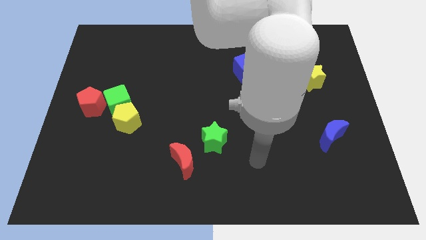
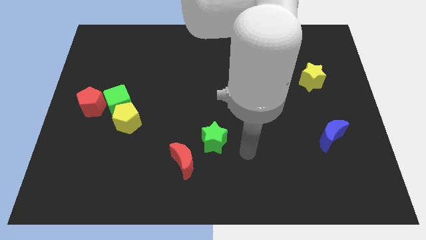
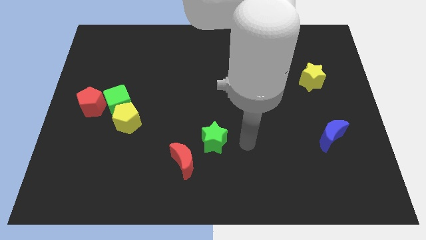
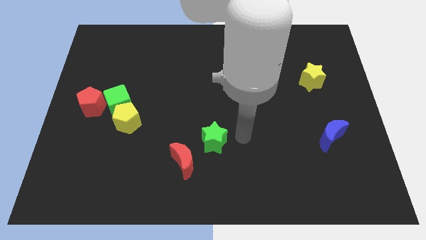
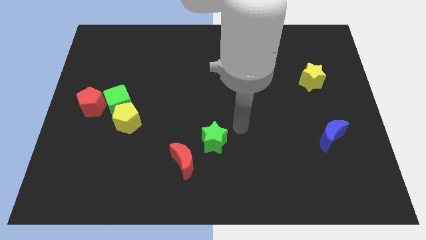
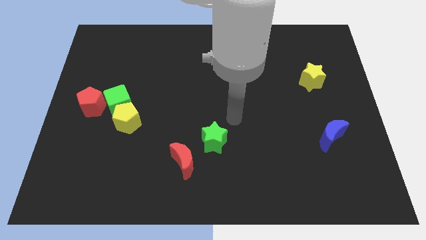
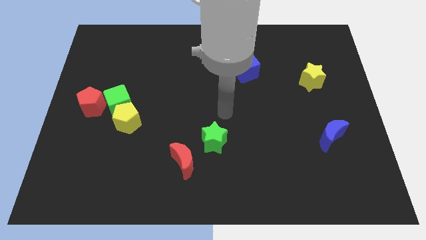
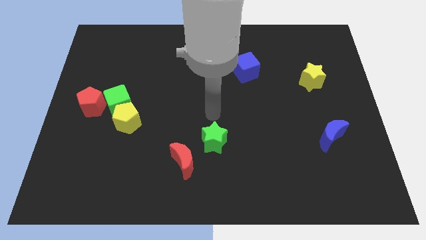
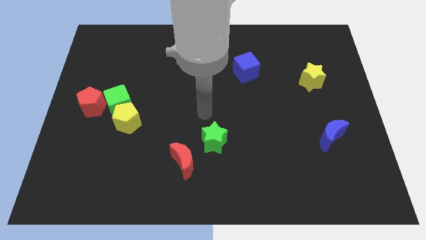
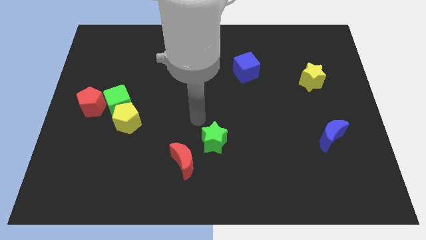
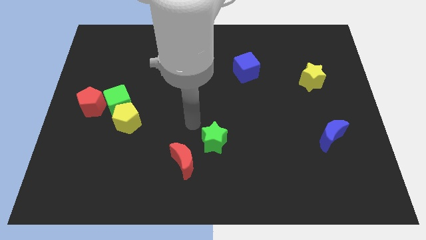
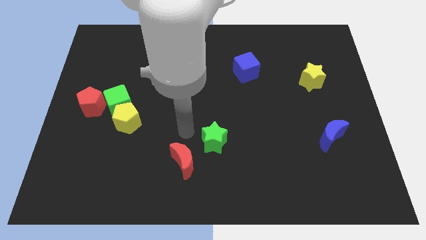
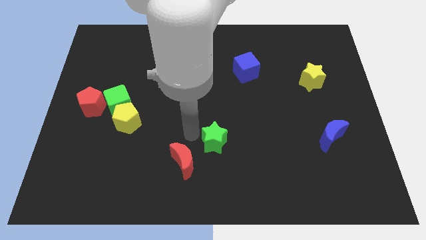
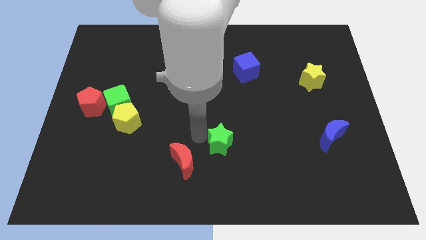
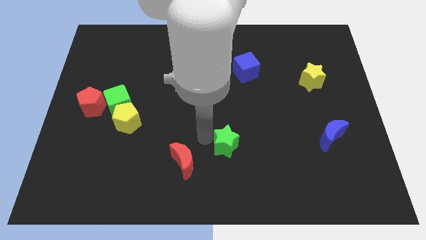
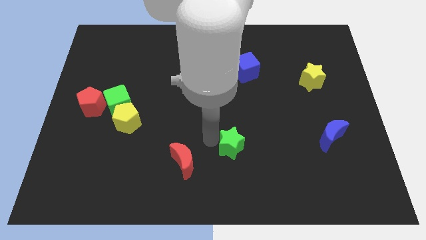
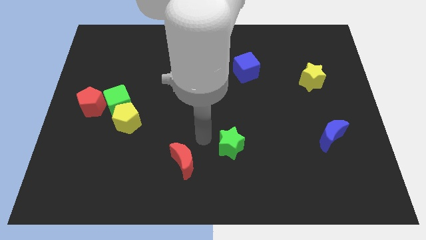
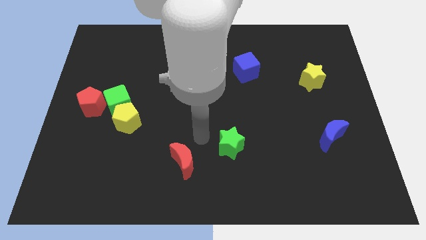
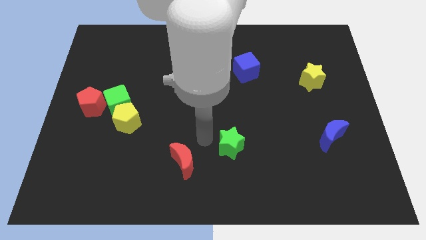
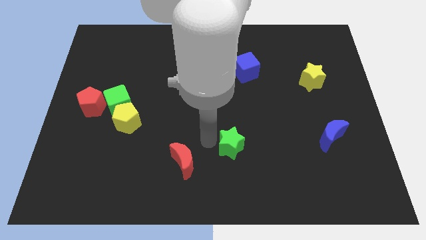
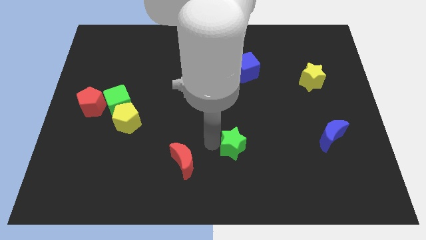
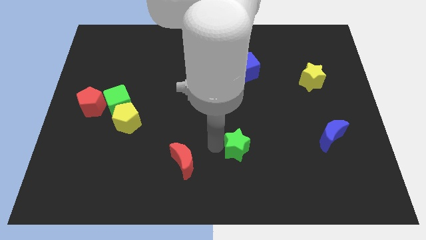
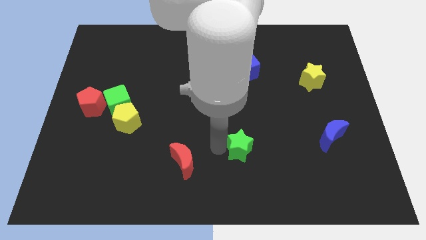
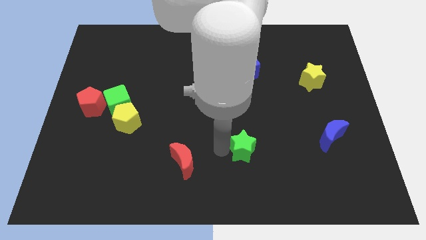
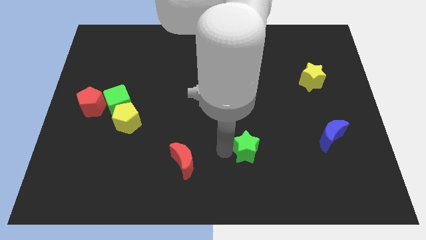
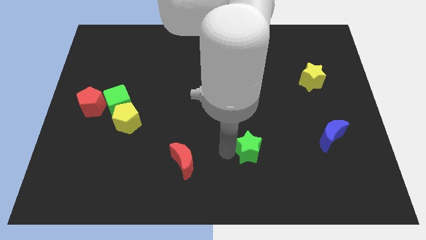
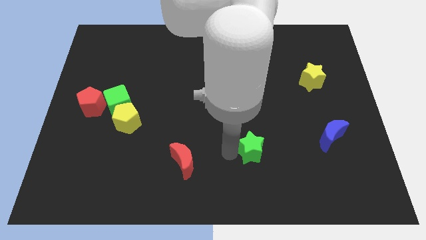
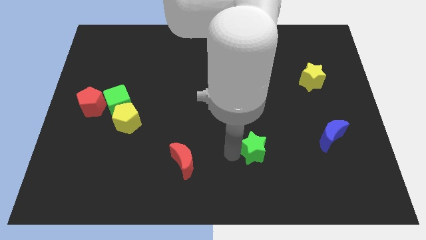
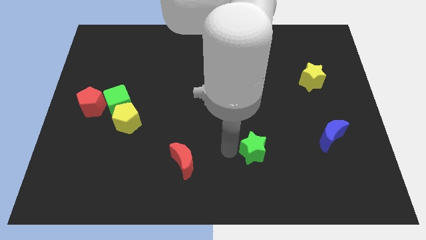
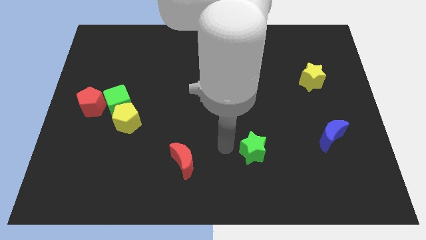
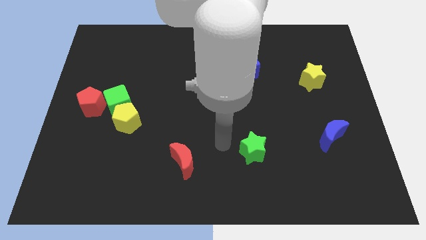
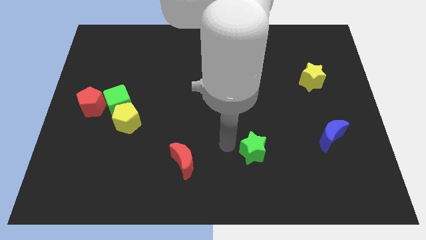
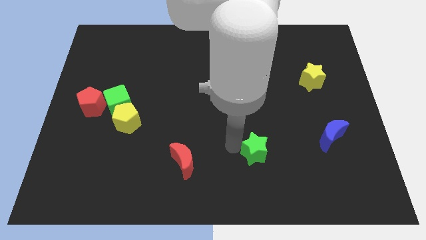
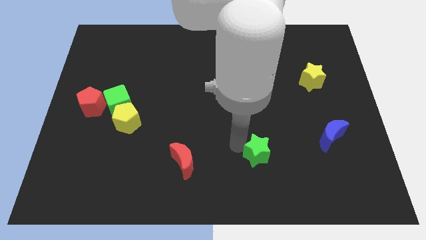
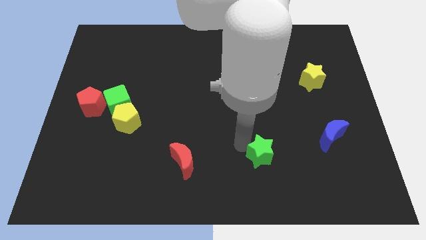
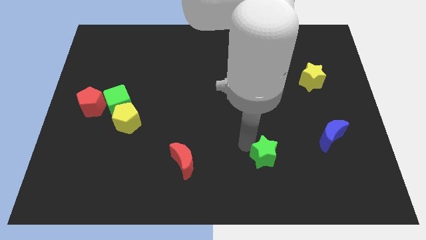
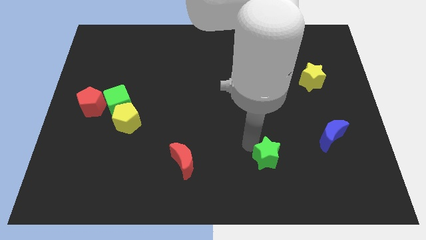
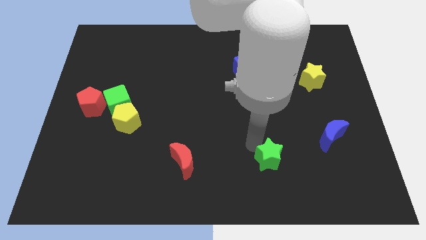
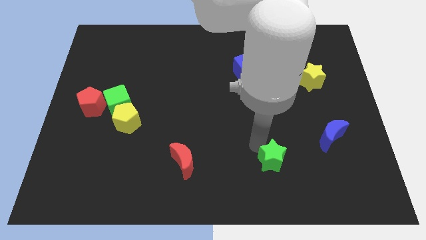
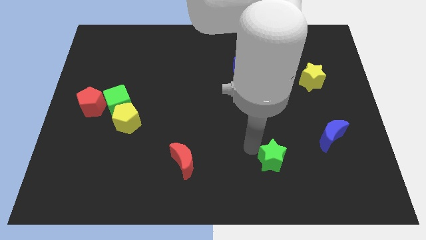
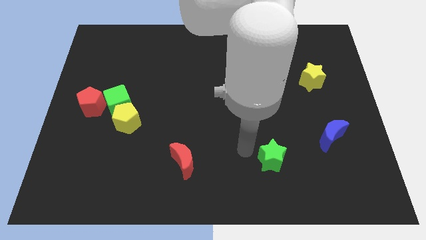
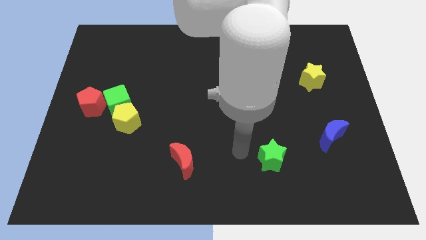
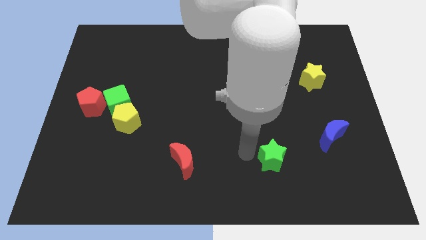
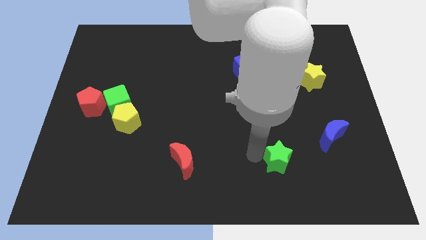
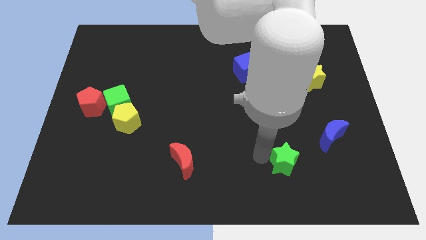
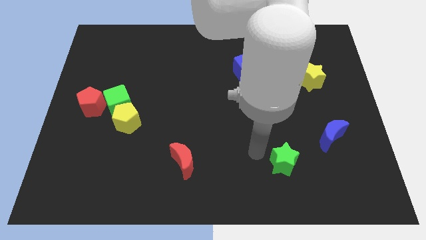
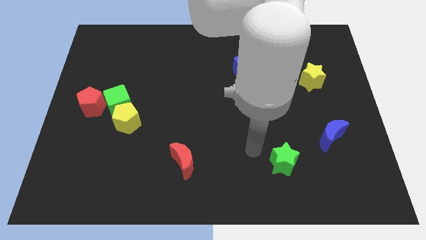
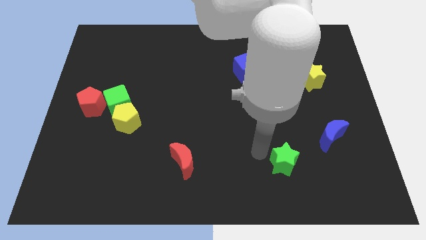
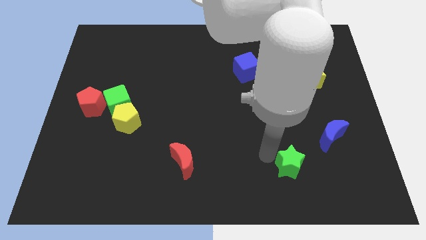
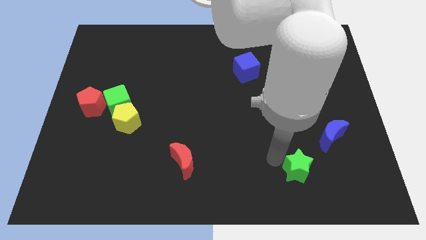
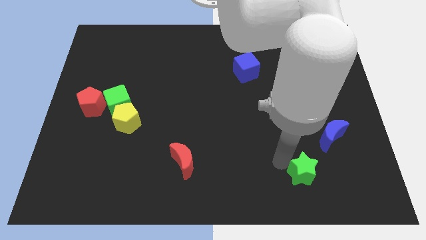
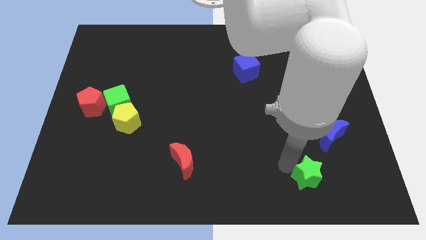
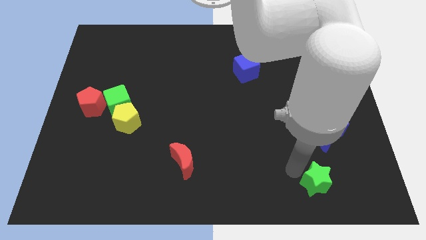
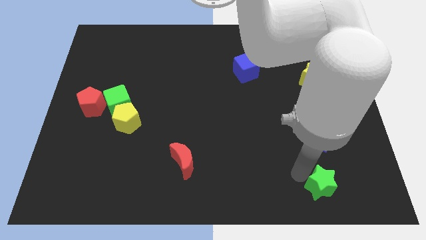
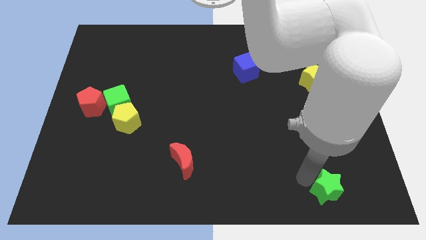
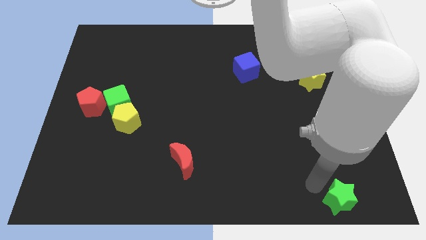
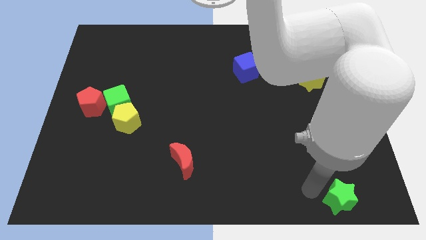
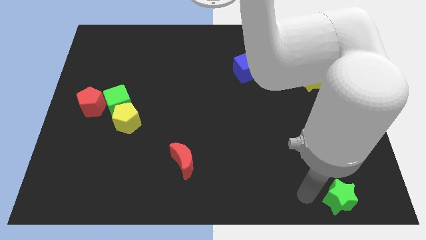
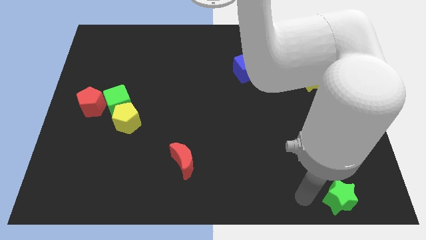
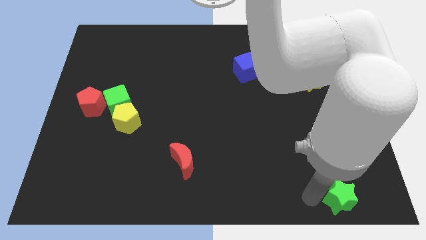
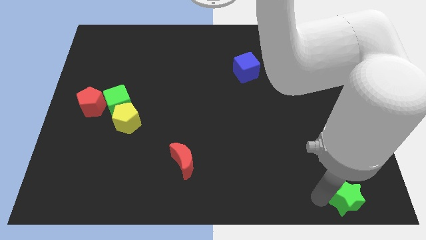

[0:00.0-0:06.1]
put the green star to the lower right corner
